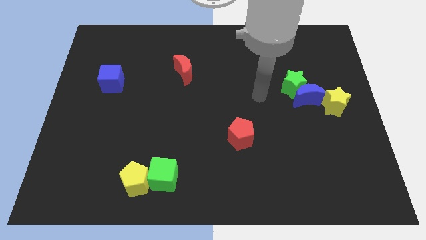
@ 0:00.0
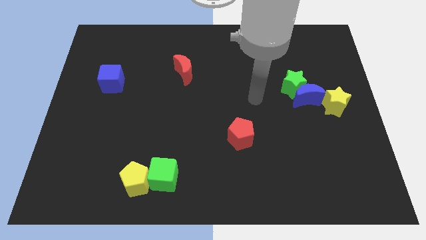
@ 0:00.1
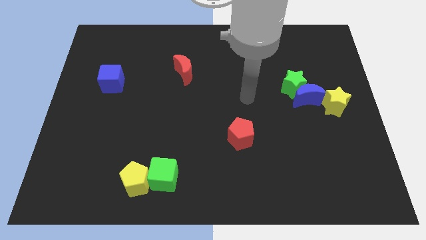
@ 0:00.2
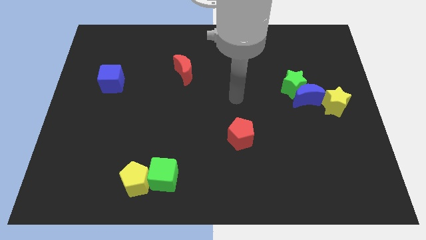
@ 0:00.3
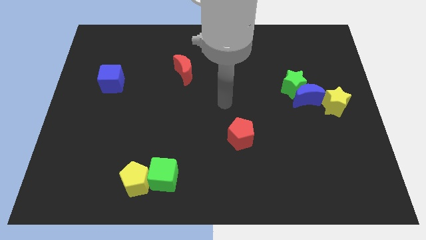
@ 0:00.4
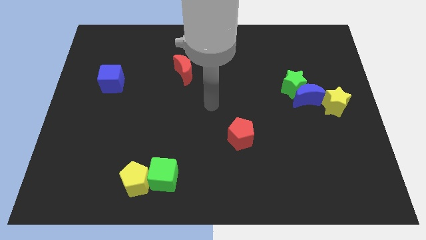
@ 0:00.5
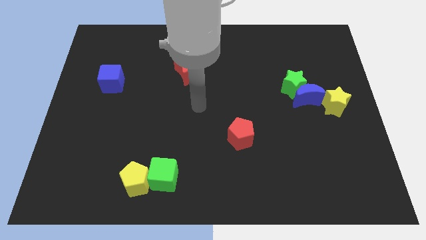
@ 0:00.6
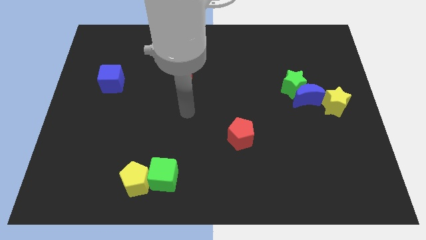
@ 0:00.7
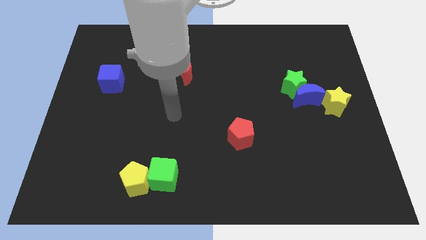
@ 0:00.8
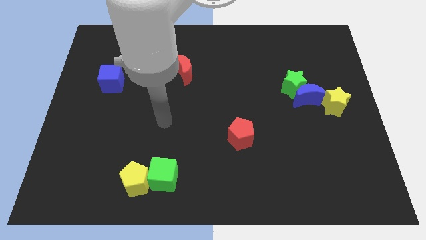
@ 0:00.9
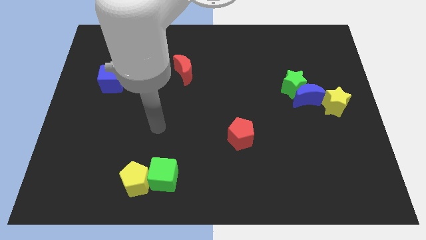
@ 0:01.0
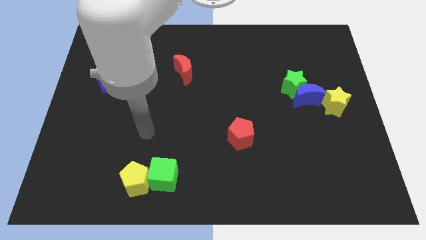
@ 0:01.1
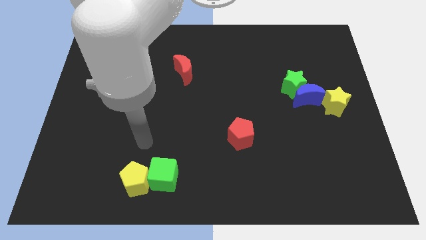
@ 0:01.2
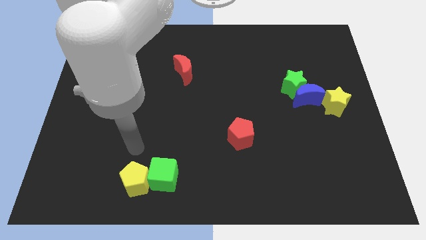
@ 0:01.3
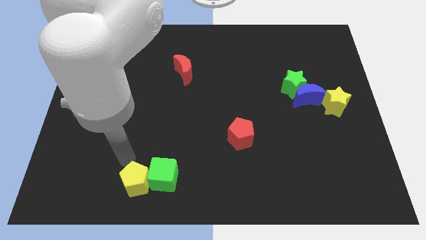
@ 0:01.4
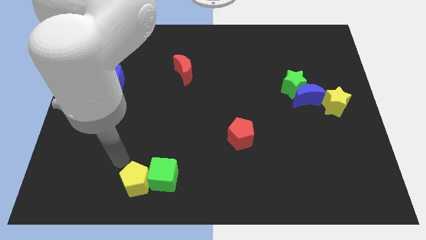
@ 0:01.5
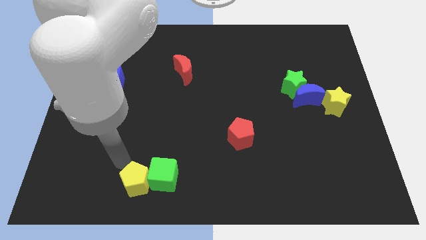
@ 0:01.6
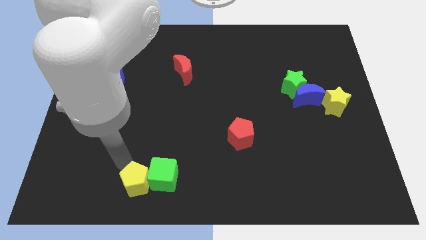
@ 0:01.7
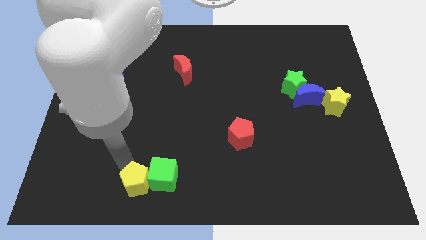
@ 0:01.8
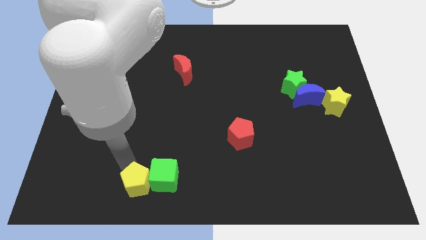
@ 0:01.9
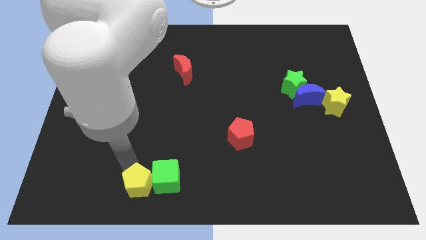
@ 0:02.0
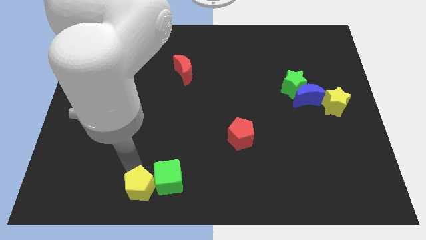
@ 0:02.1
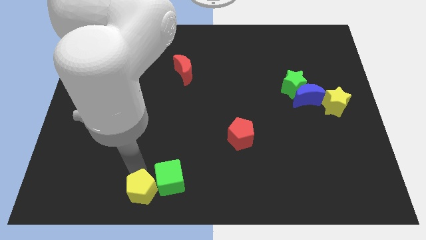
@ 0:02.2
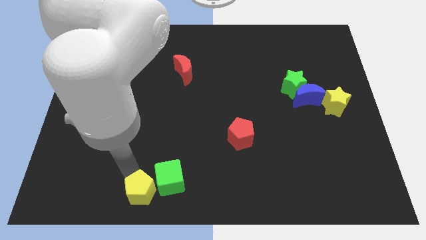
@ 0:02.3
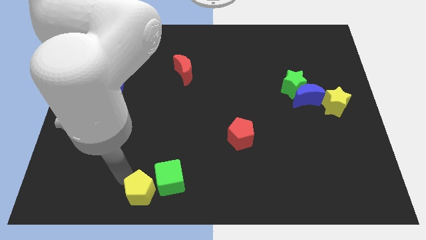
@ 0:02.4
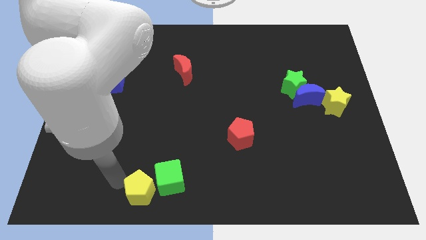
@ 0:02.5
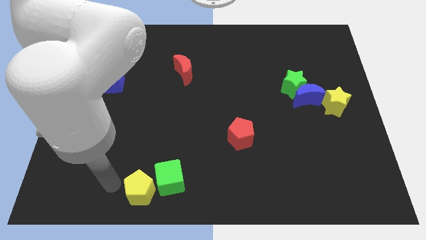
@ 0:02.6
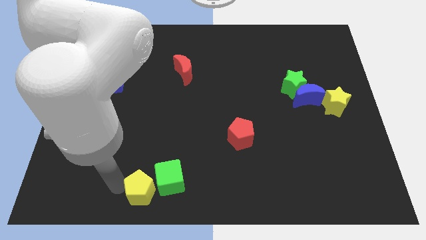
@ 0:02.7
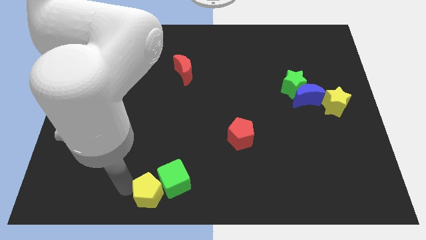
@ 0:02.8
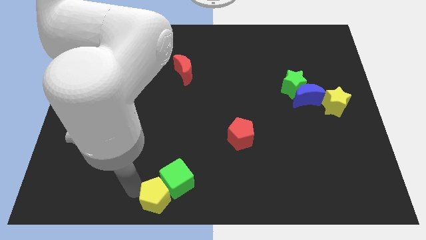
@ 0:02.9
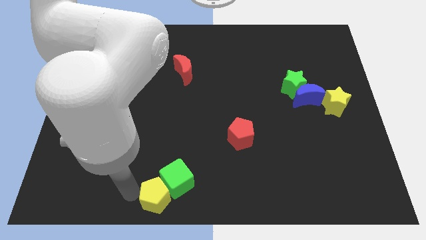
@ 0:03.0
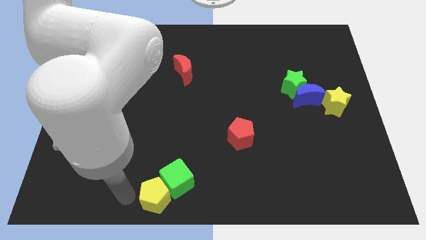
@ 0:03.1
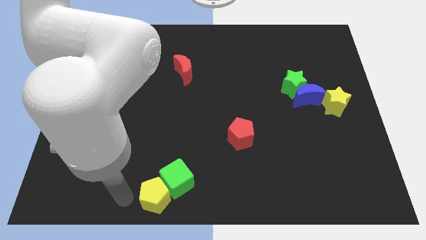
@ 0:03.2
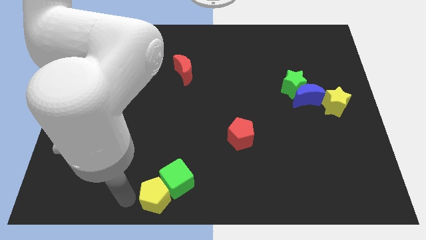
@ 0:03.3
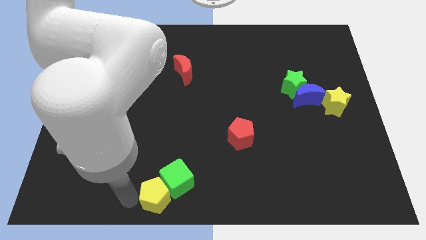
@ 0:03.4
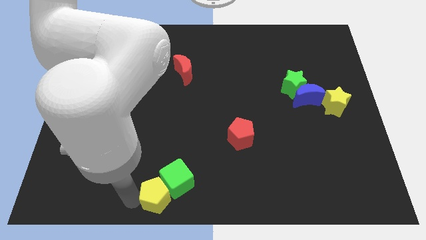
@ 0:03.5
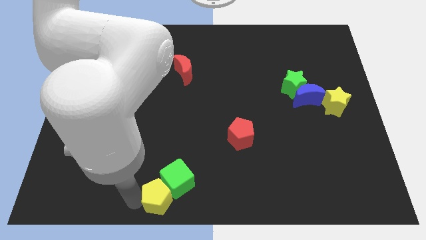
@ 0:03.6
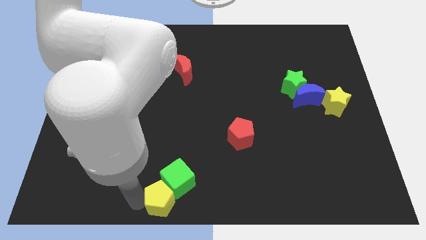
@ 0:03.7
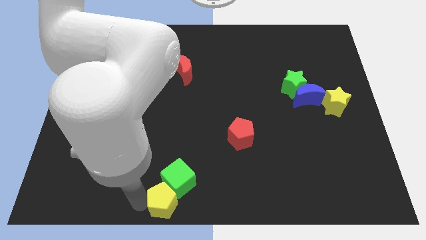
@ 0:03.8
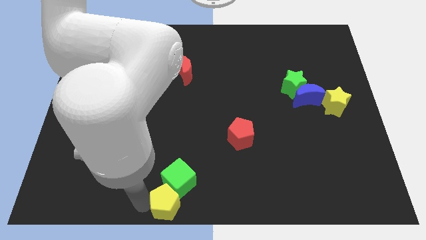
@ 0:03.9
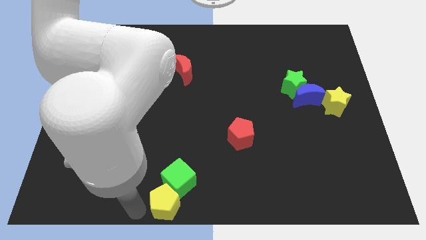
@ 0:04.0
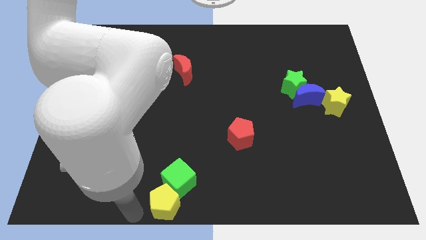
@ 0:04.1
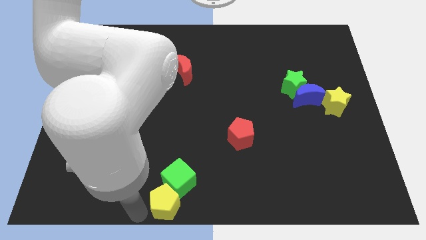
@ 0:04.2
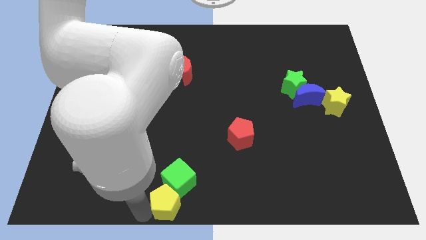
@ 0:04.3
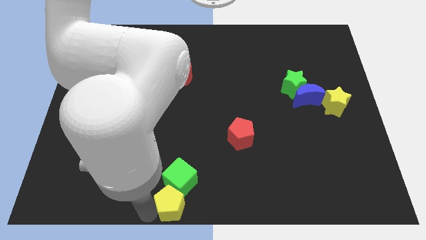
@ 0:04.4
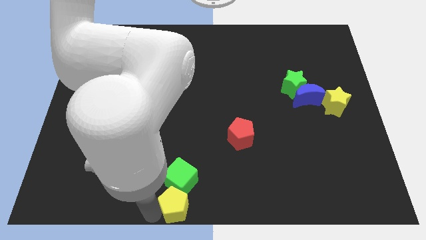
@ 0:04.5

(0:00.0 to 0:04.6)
slightly push the yellow pentagon to the right

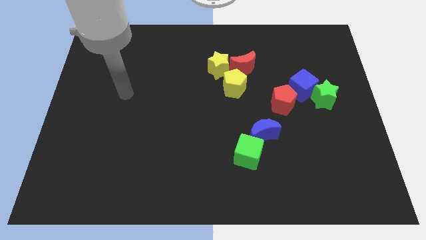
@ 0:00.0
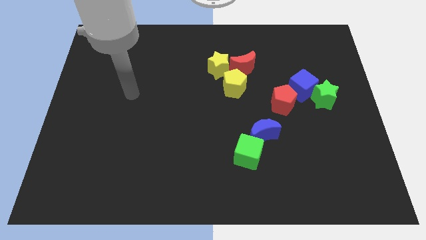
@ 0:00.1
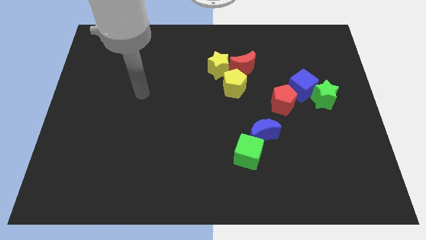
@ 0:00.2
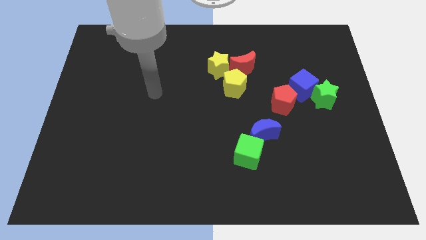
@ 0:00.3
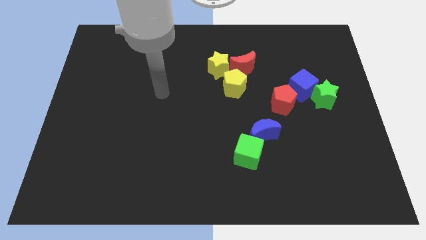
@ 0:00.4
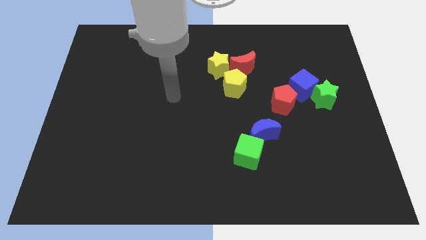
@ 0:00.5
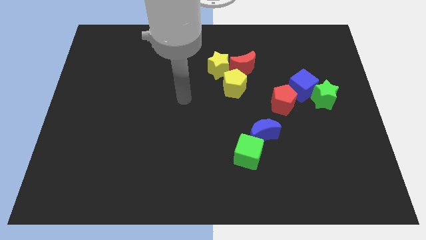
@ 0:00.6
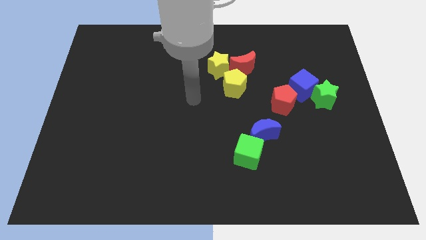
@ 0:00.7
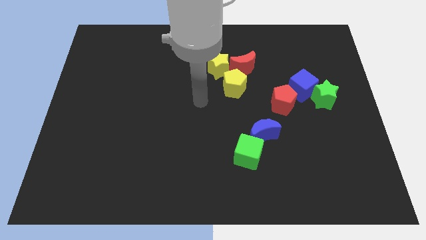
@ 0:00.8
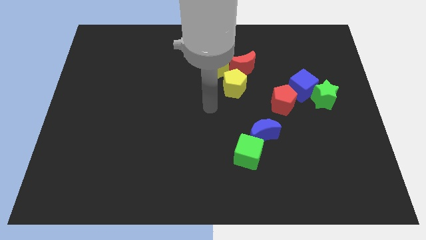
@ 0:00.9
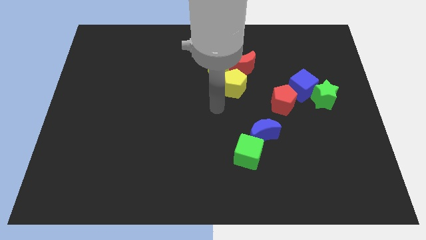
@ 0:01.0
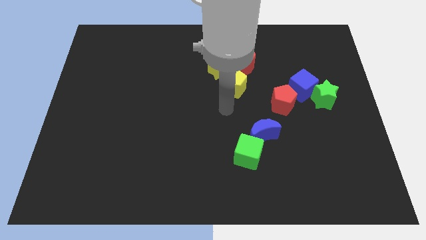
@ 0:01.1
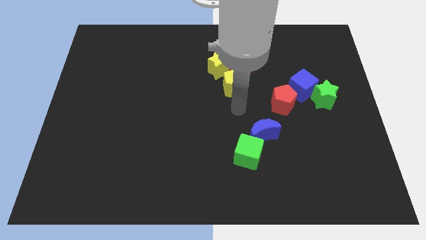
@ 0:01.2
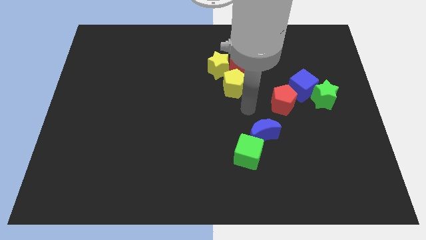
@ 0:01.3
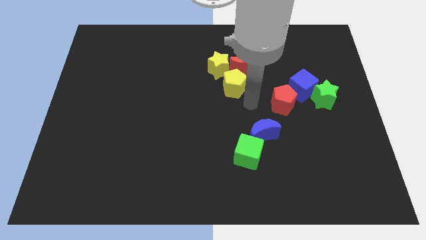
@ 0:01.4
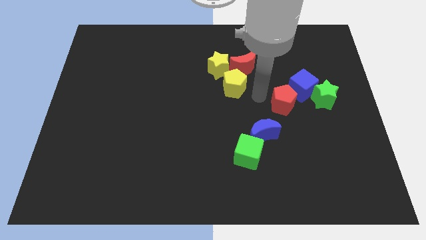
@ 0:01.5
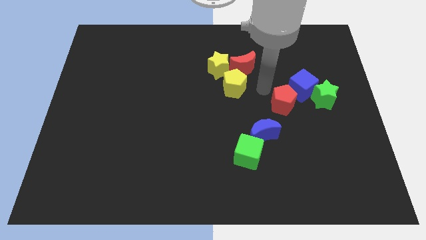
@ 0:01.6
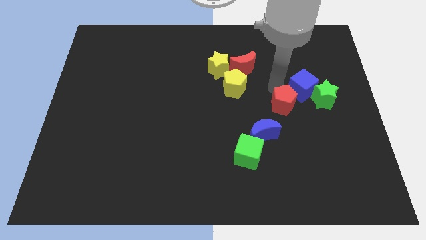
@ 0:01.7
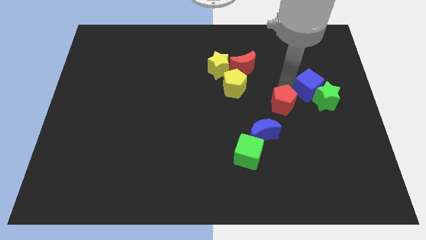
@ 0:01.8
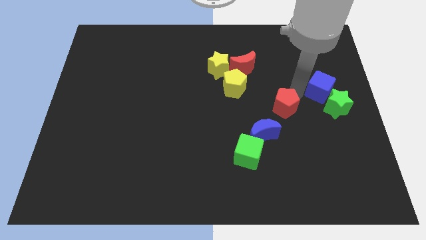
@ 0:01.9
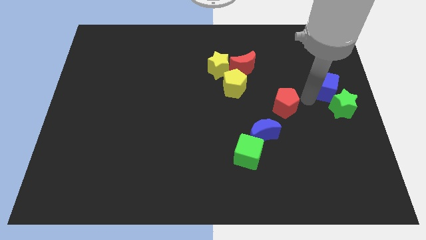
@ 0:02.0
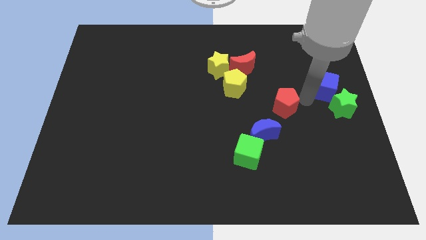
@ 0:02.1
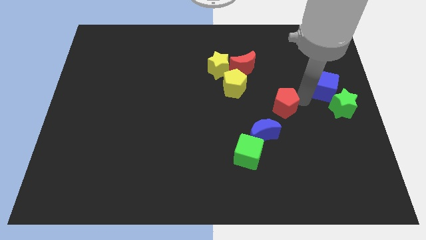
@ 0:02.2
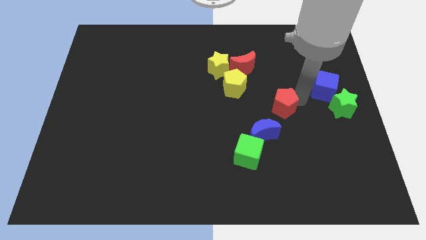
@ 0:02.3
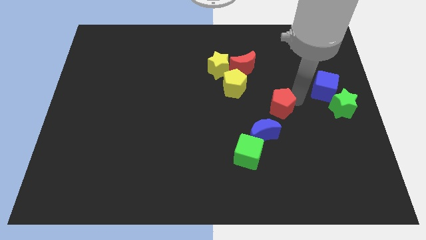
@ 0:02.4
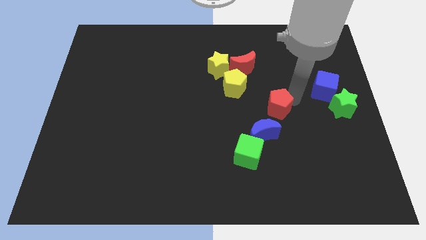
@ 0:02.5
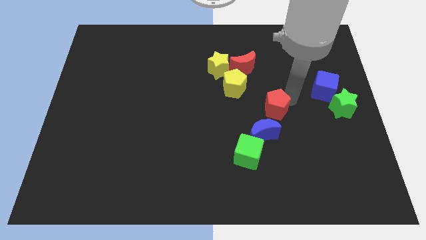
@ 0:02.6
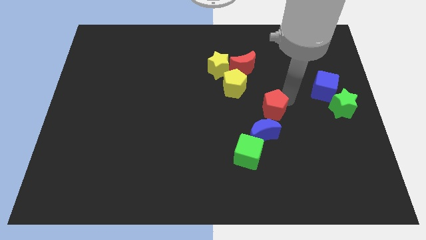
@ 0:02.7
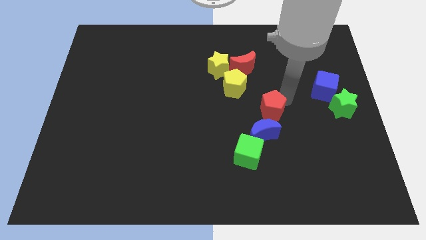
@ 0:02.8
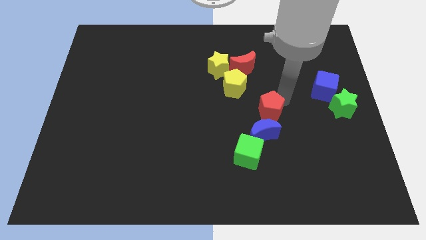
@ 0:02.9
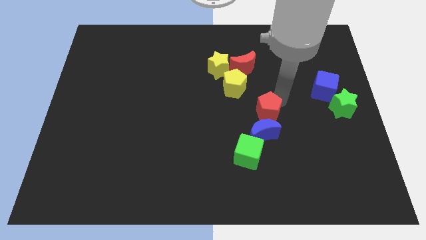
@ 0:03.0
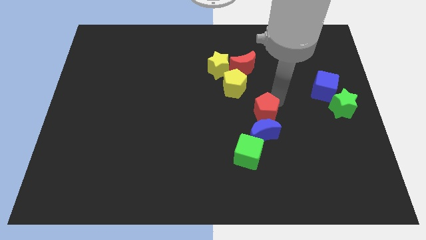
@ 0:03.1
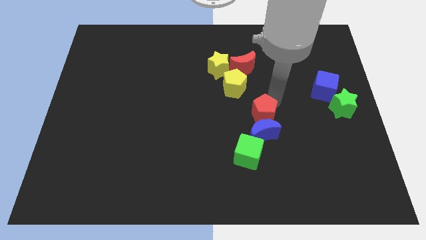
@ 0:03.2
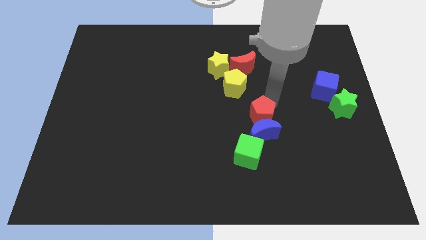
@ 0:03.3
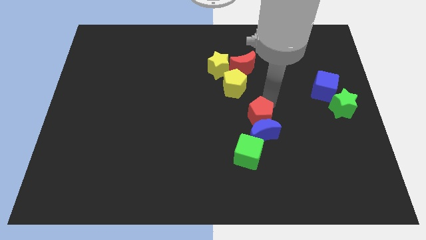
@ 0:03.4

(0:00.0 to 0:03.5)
slightly slide the red pentagon diagonally downwards and to the left

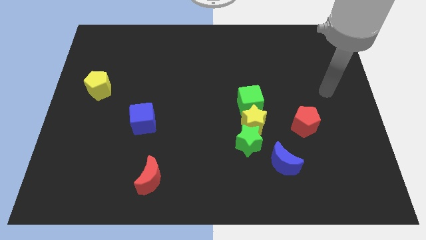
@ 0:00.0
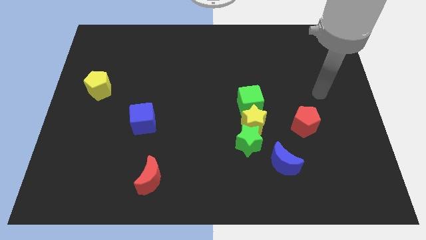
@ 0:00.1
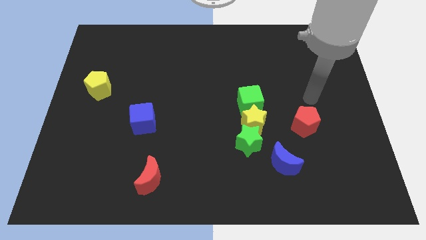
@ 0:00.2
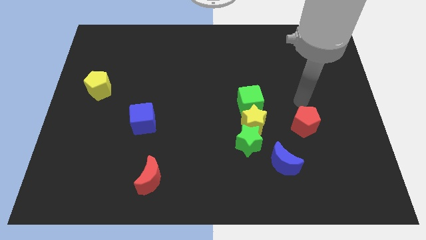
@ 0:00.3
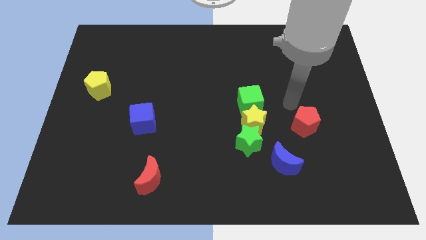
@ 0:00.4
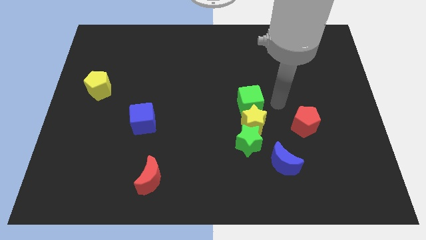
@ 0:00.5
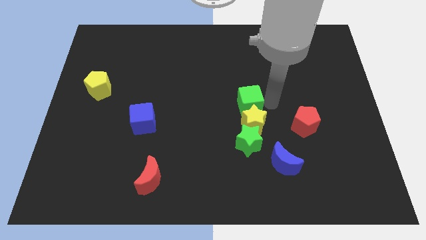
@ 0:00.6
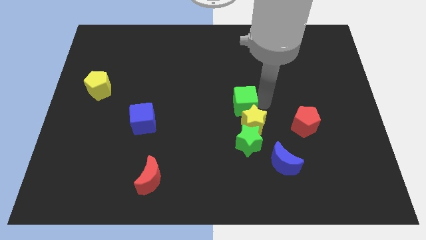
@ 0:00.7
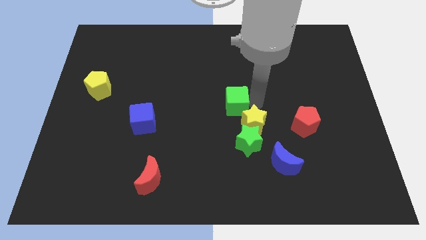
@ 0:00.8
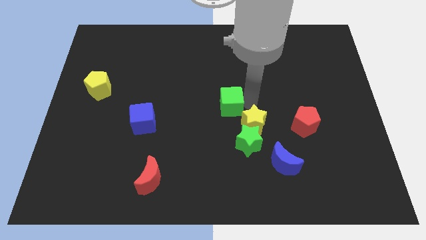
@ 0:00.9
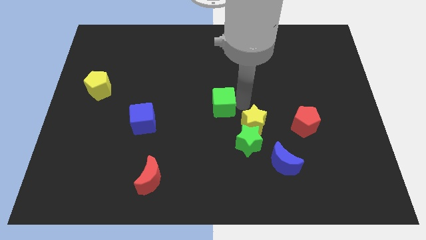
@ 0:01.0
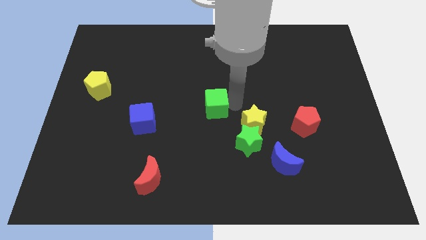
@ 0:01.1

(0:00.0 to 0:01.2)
slightly move the green cube to the left
